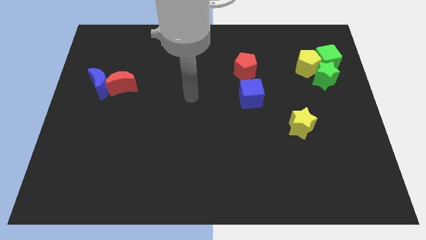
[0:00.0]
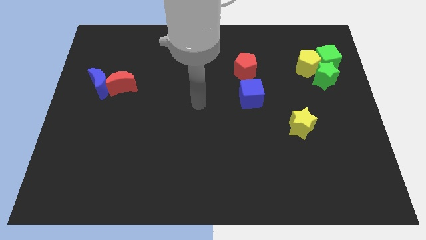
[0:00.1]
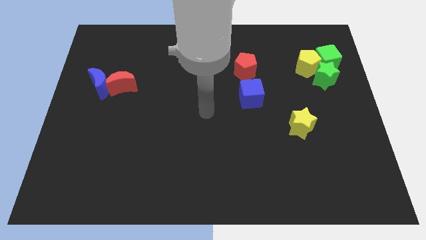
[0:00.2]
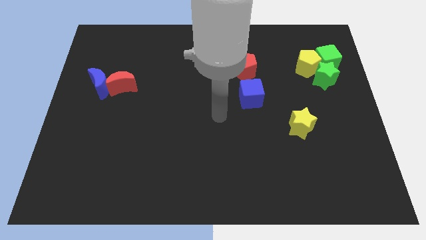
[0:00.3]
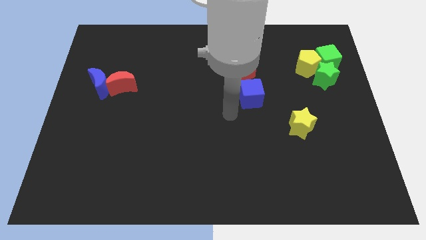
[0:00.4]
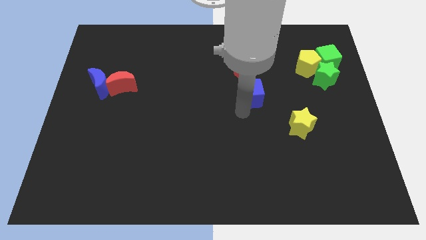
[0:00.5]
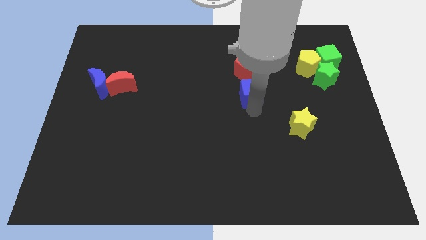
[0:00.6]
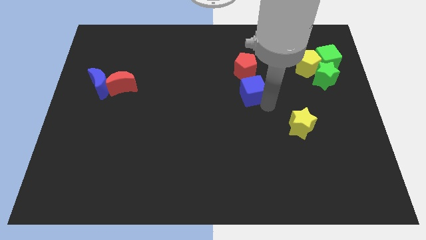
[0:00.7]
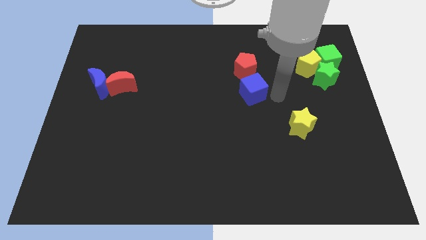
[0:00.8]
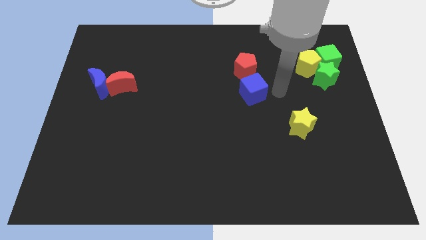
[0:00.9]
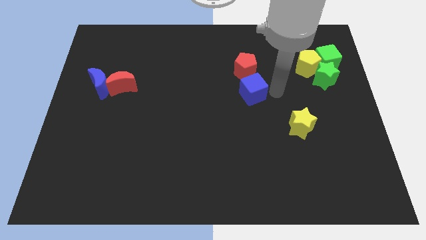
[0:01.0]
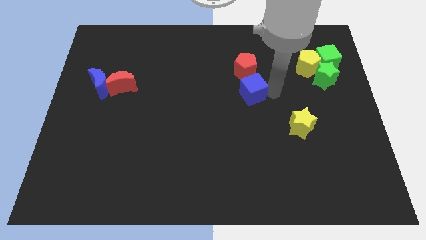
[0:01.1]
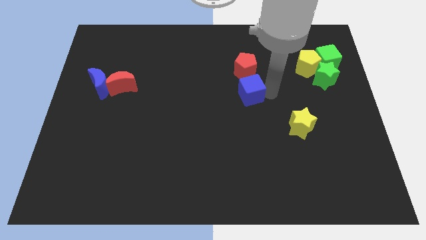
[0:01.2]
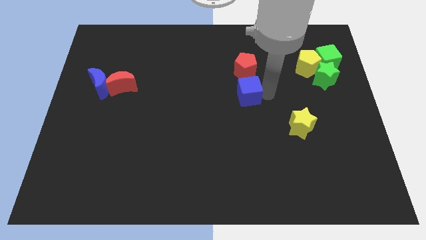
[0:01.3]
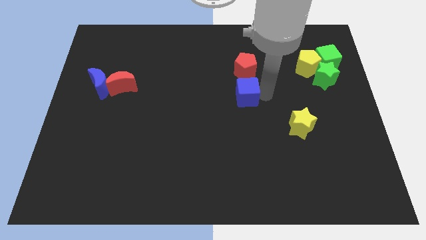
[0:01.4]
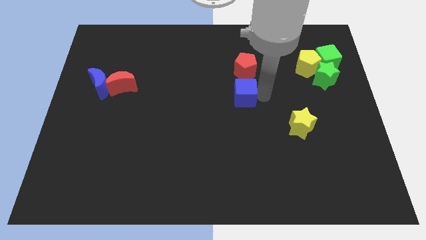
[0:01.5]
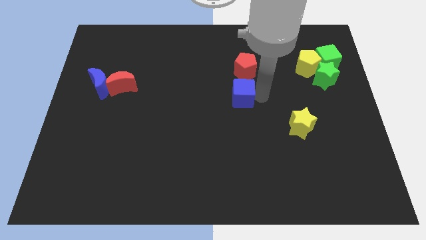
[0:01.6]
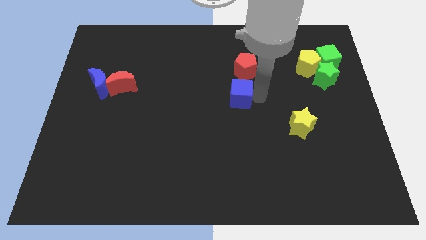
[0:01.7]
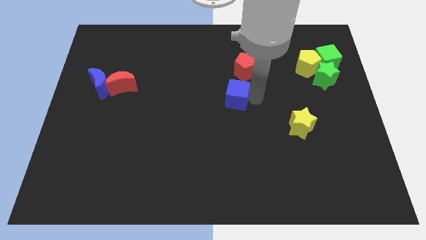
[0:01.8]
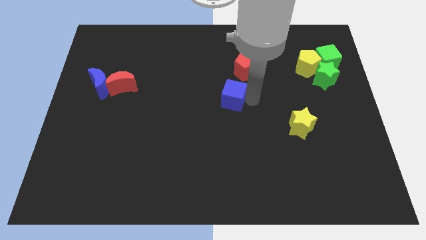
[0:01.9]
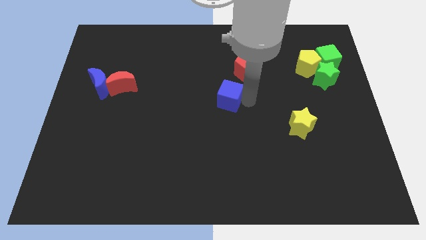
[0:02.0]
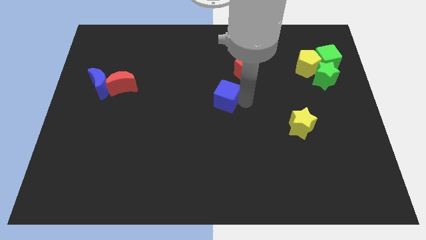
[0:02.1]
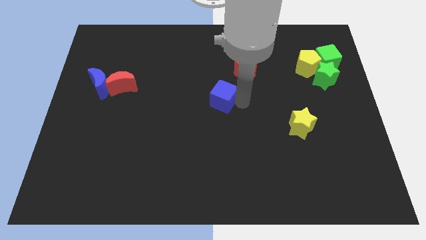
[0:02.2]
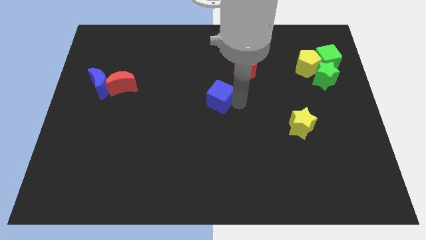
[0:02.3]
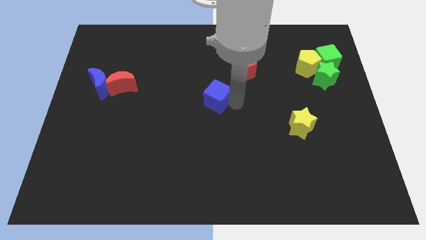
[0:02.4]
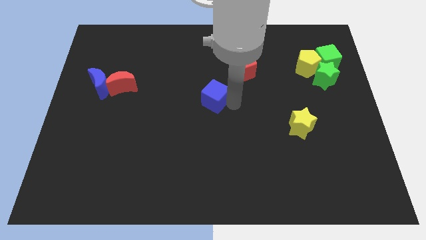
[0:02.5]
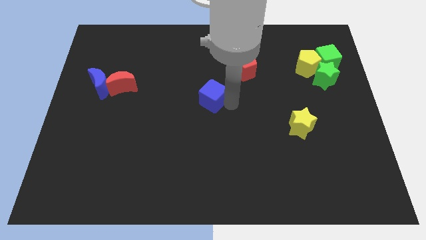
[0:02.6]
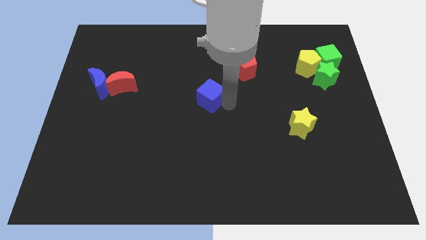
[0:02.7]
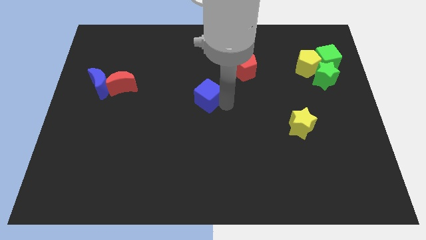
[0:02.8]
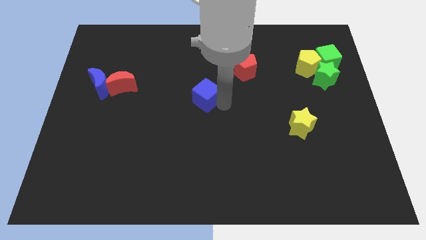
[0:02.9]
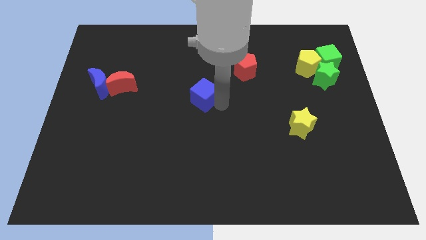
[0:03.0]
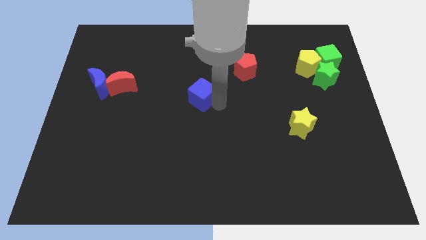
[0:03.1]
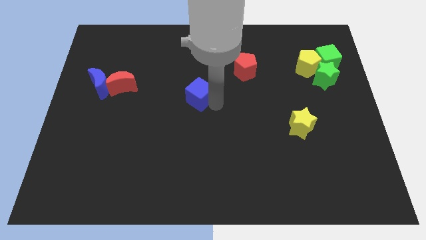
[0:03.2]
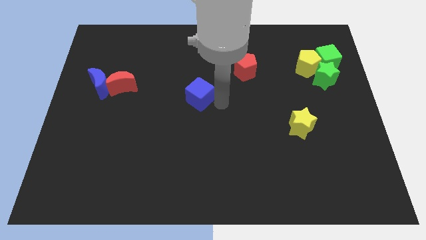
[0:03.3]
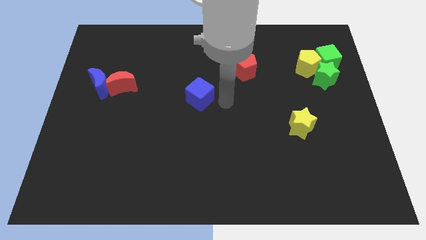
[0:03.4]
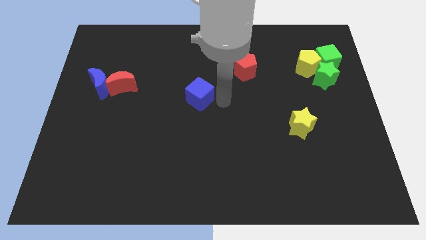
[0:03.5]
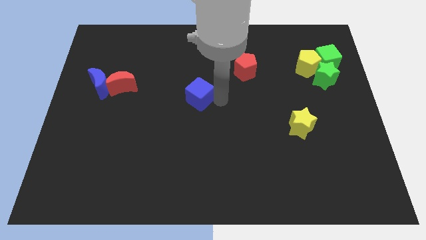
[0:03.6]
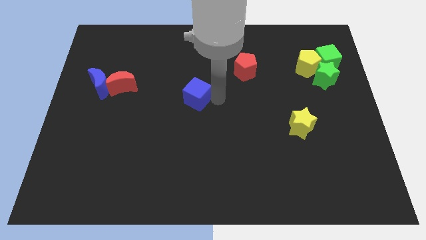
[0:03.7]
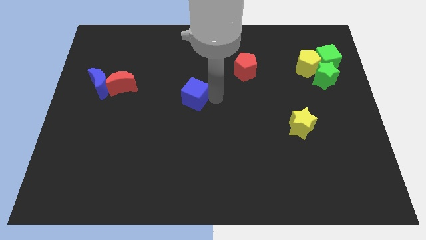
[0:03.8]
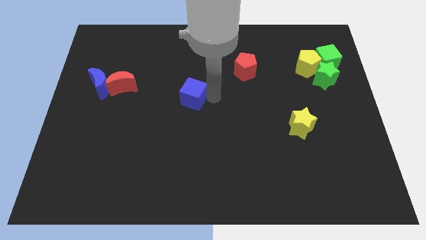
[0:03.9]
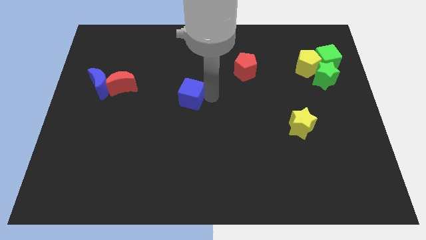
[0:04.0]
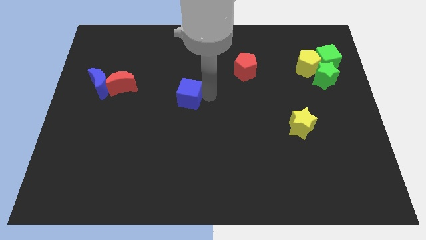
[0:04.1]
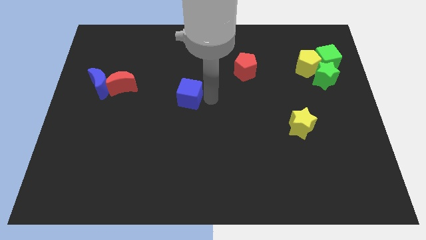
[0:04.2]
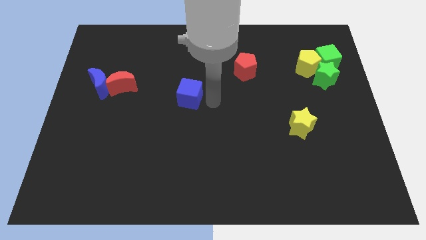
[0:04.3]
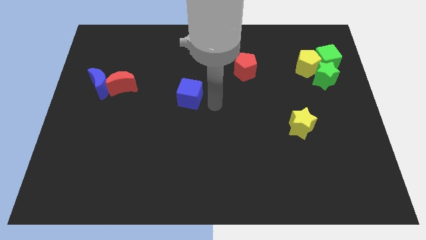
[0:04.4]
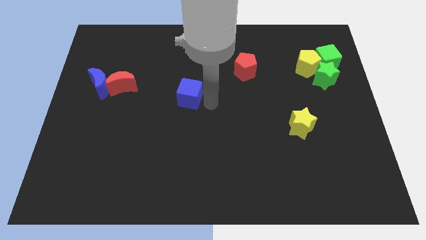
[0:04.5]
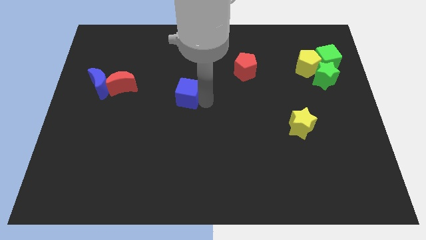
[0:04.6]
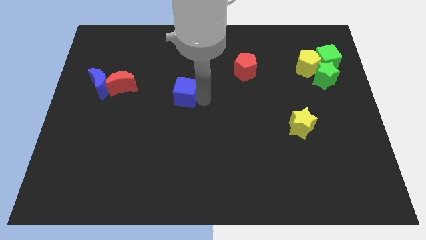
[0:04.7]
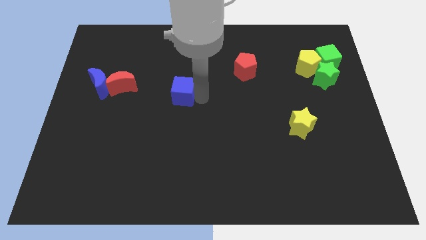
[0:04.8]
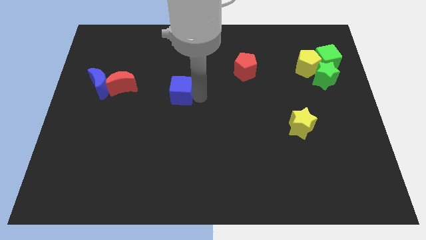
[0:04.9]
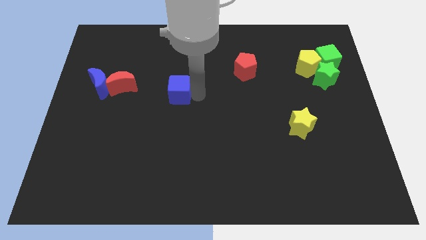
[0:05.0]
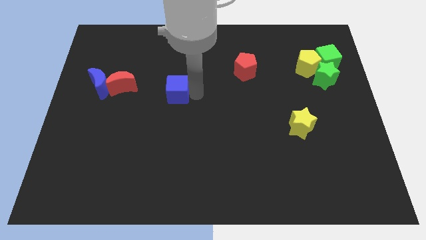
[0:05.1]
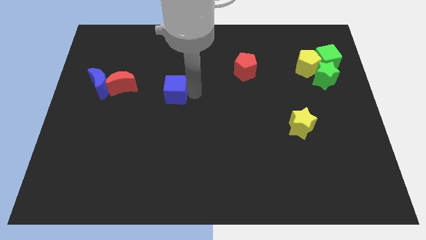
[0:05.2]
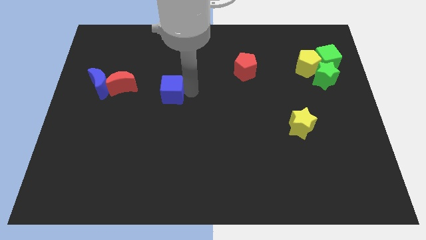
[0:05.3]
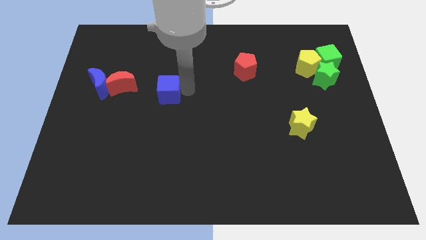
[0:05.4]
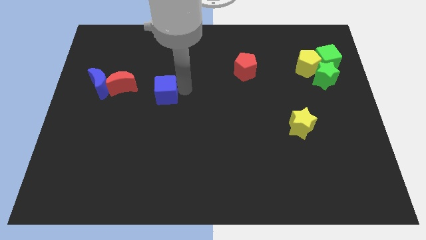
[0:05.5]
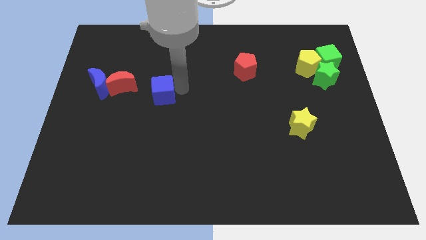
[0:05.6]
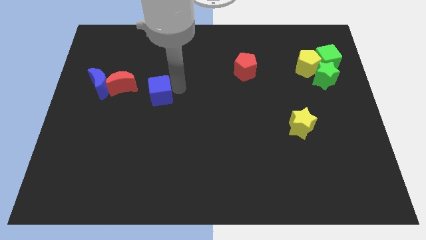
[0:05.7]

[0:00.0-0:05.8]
push the blue cube to the bottom right of the red moon
